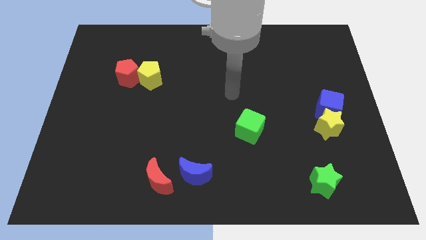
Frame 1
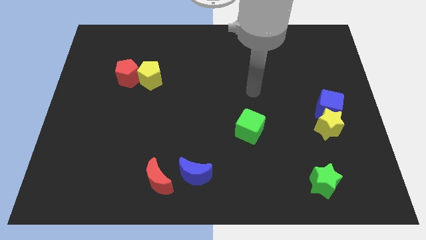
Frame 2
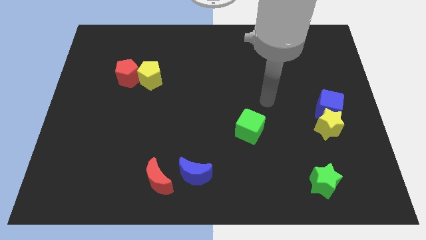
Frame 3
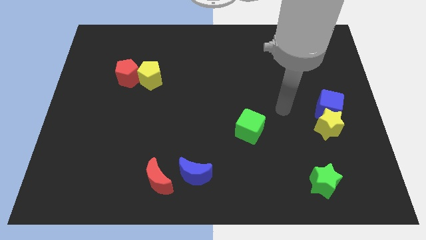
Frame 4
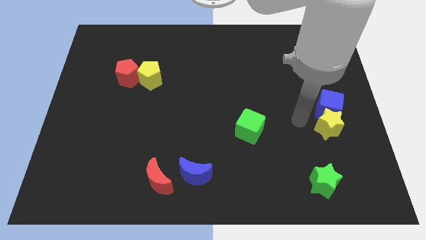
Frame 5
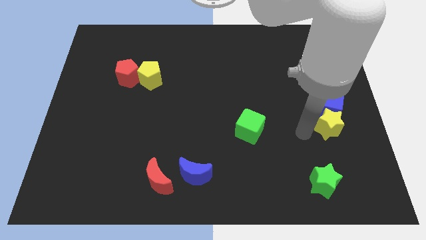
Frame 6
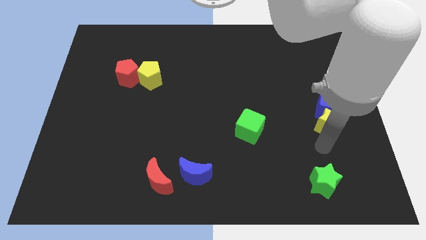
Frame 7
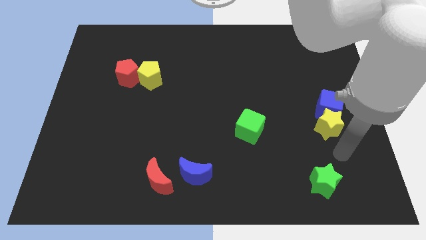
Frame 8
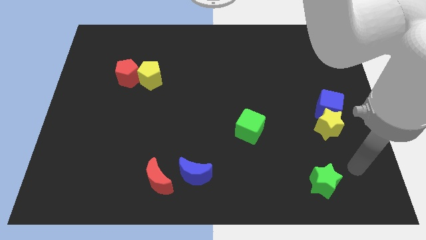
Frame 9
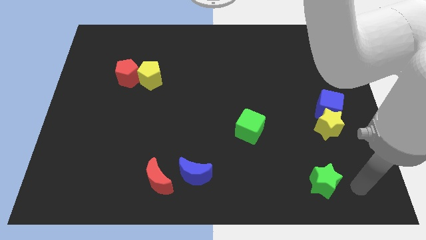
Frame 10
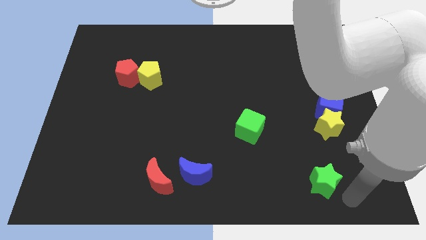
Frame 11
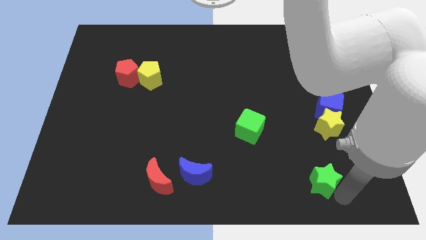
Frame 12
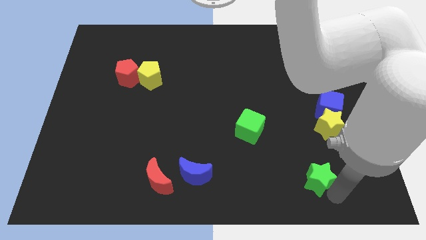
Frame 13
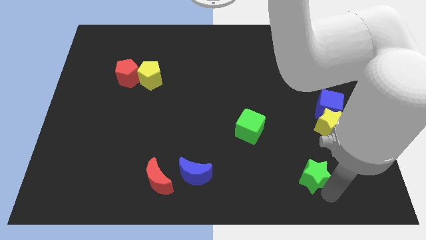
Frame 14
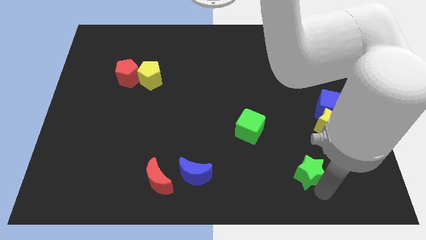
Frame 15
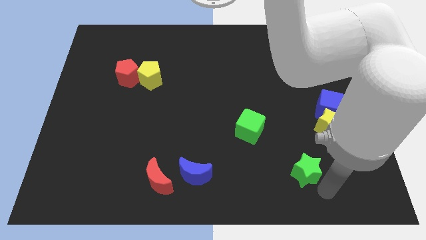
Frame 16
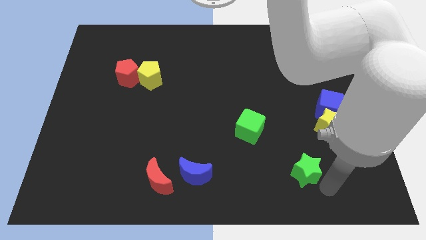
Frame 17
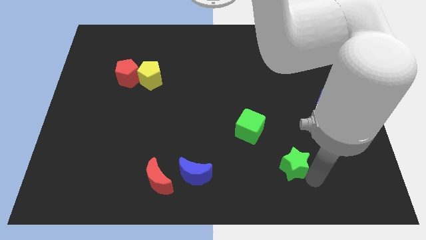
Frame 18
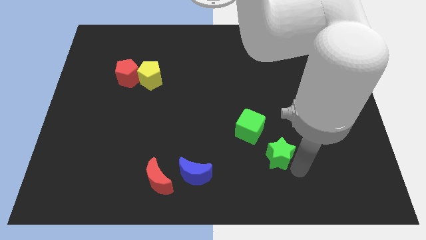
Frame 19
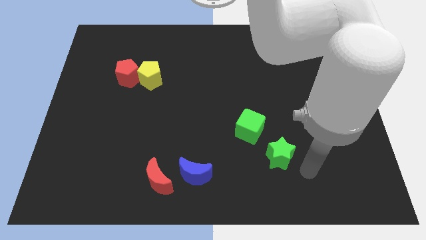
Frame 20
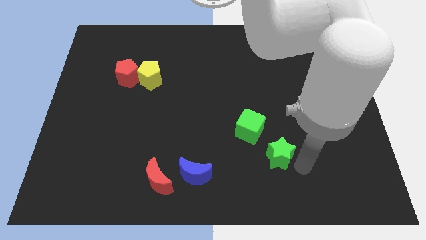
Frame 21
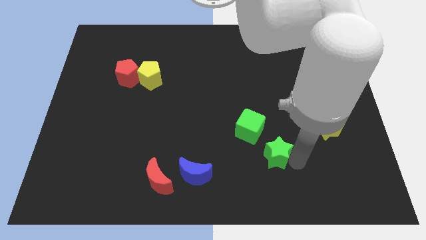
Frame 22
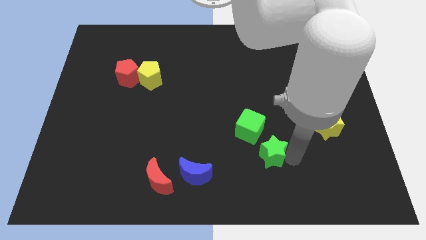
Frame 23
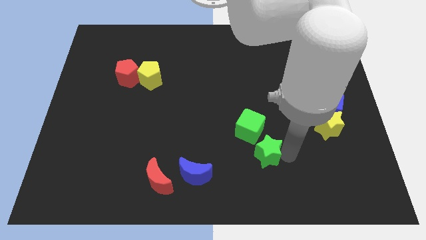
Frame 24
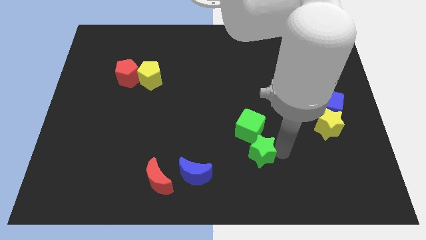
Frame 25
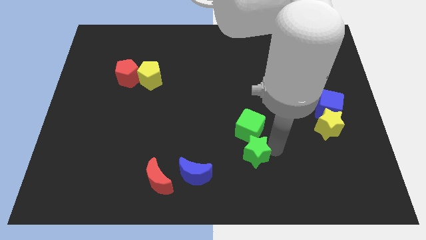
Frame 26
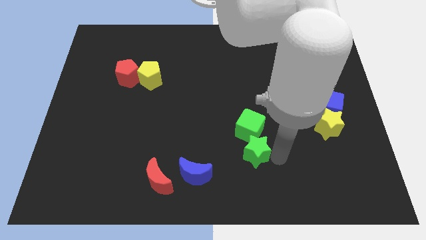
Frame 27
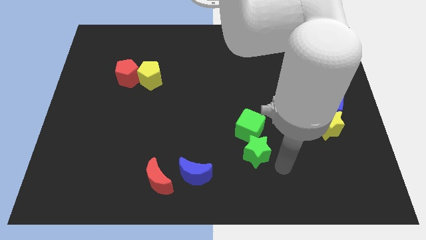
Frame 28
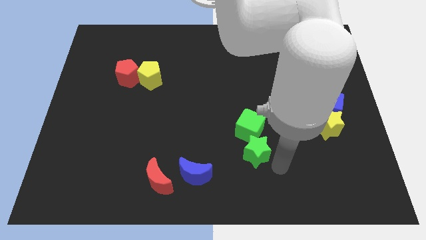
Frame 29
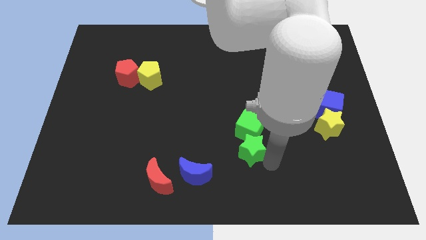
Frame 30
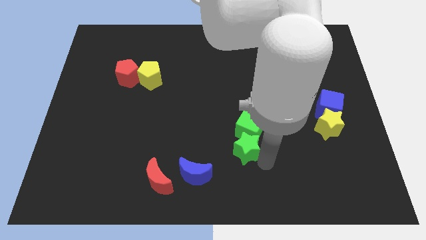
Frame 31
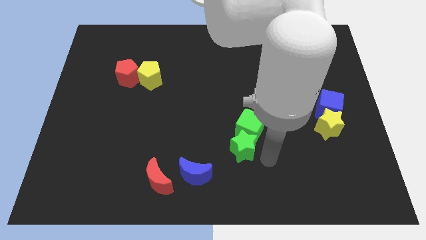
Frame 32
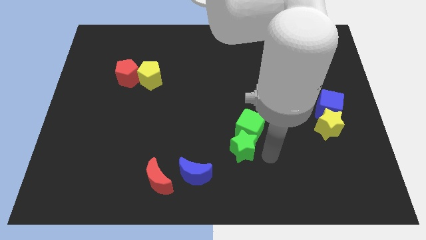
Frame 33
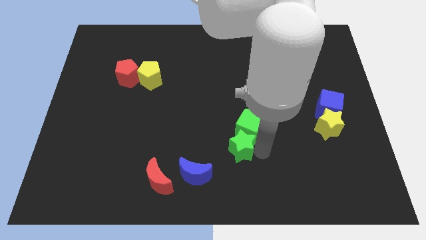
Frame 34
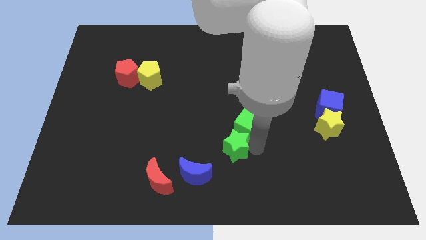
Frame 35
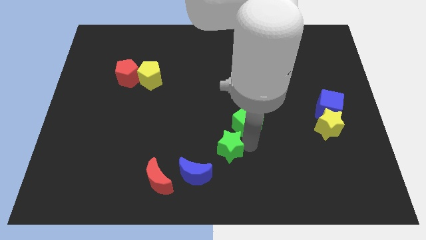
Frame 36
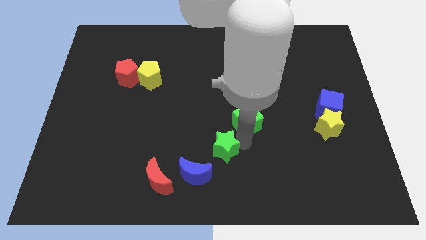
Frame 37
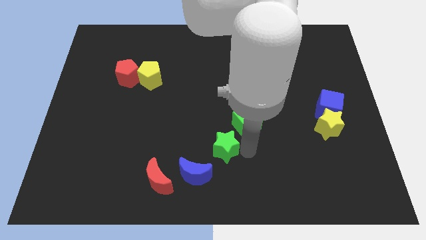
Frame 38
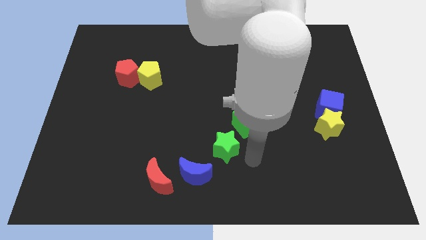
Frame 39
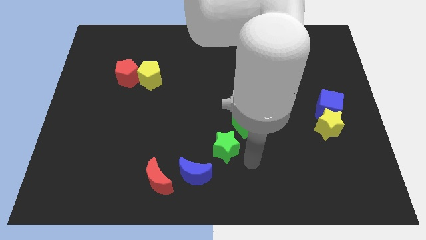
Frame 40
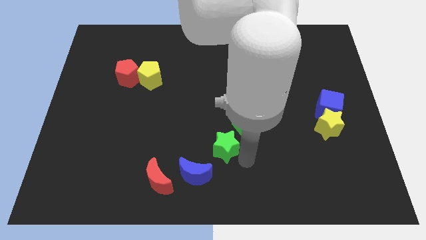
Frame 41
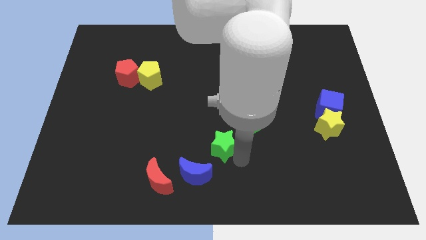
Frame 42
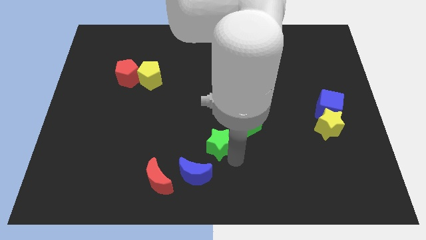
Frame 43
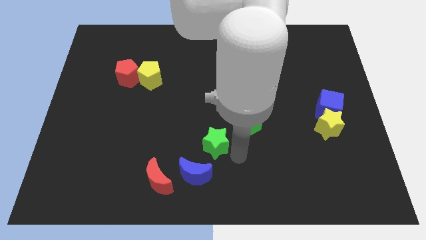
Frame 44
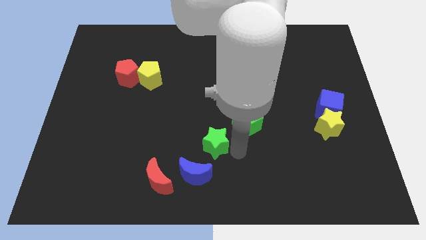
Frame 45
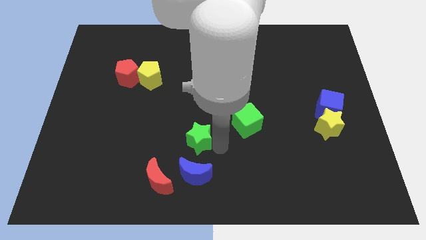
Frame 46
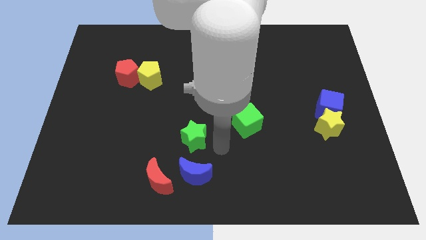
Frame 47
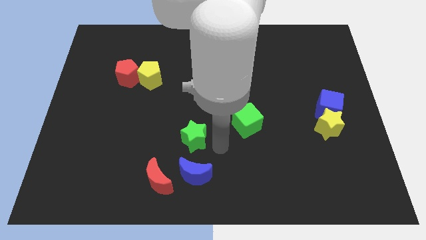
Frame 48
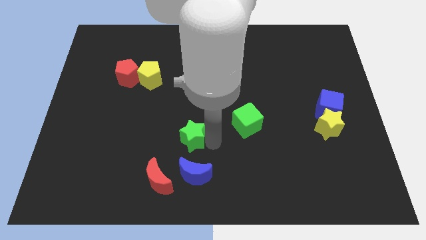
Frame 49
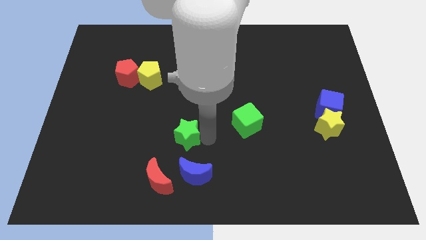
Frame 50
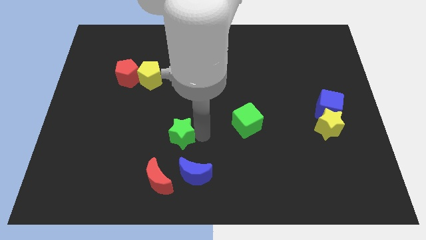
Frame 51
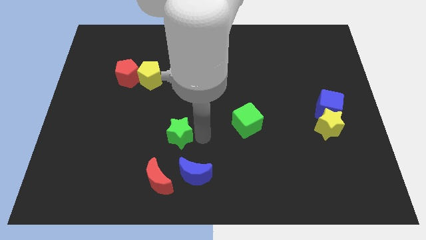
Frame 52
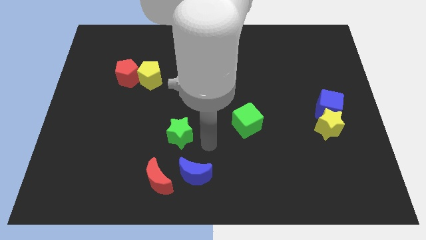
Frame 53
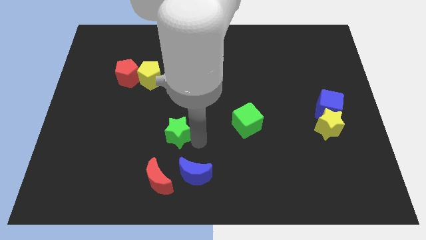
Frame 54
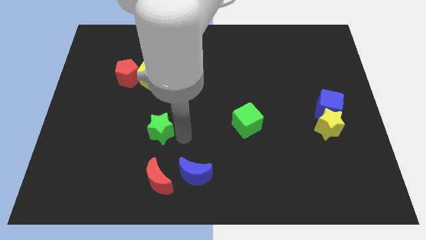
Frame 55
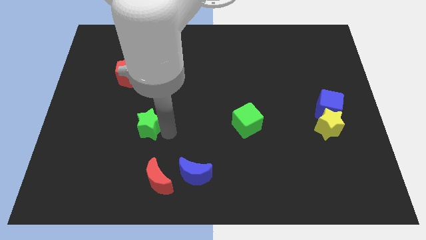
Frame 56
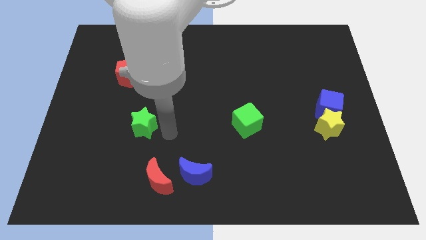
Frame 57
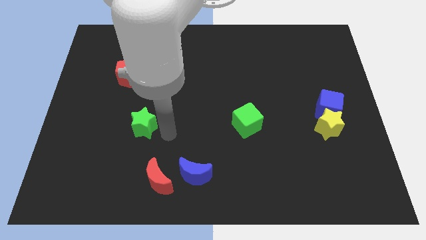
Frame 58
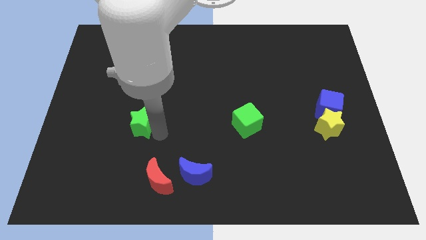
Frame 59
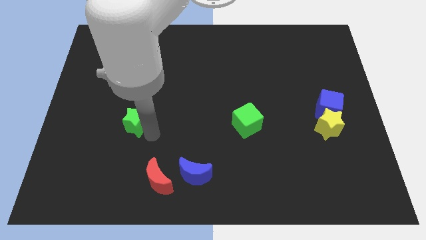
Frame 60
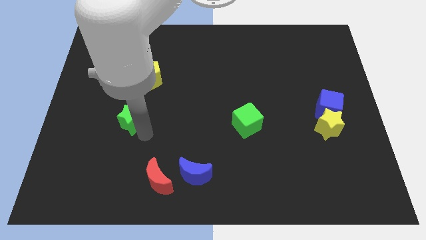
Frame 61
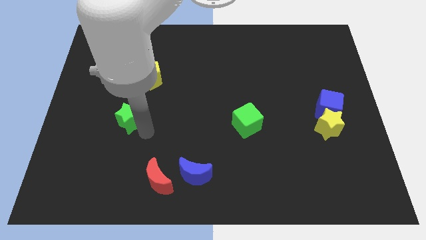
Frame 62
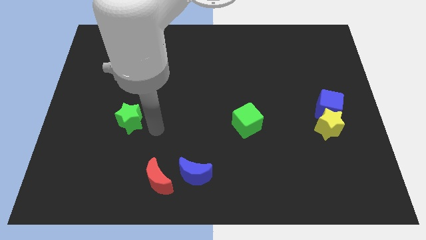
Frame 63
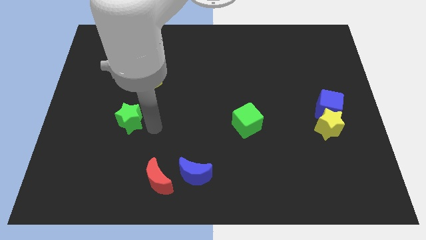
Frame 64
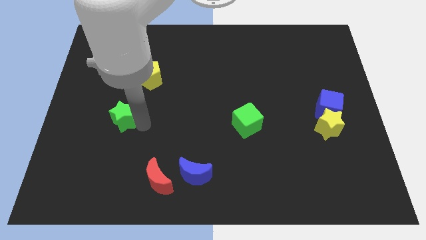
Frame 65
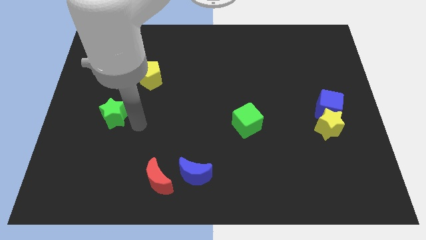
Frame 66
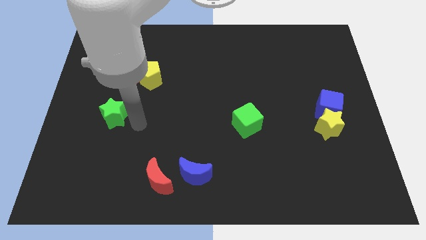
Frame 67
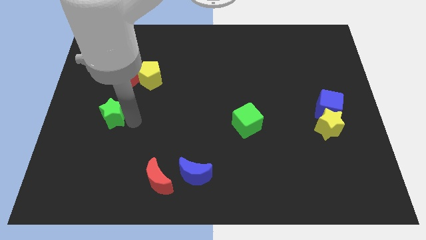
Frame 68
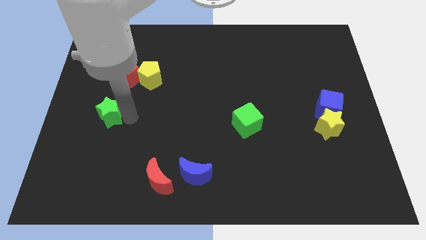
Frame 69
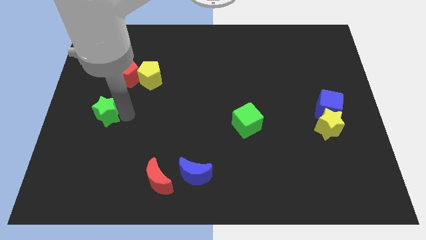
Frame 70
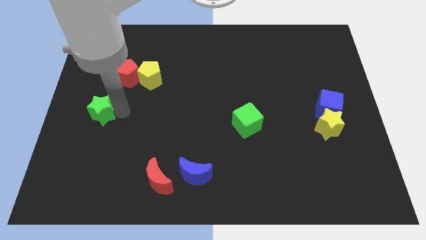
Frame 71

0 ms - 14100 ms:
slide the green star to the left side of the board

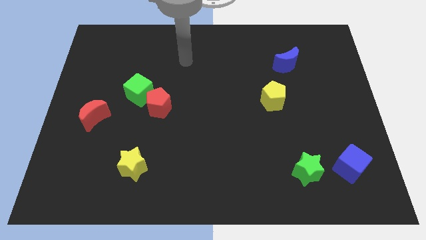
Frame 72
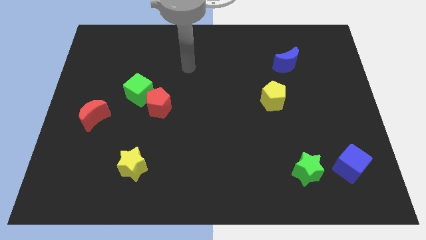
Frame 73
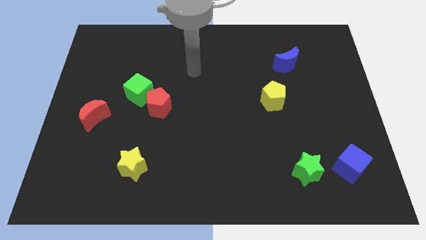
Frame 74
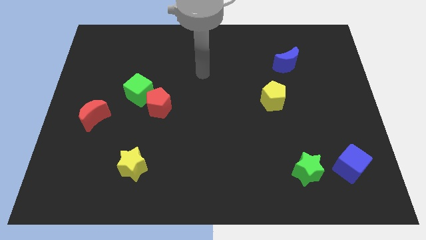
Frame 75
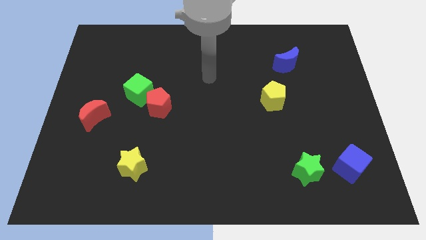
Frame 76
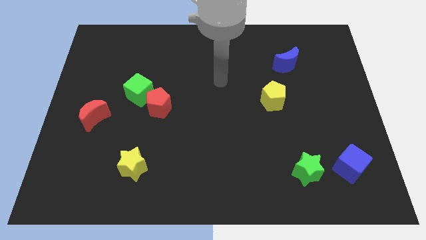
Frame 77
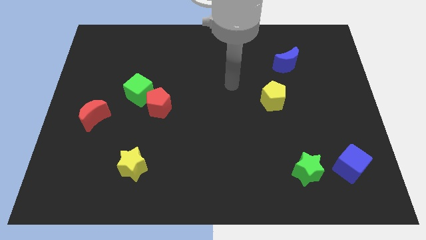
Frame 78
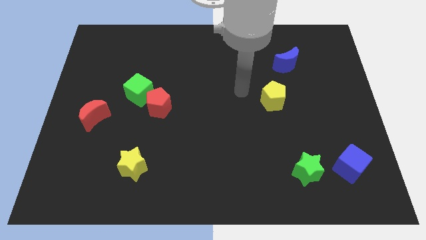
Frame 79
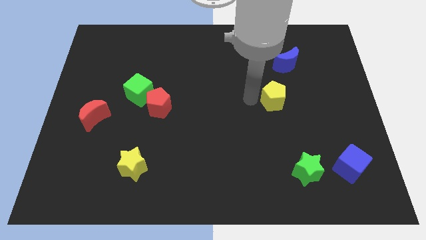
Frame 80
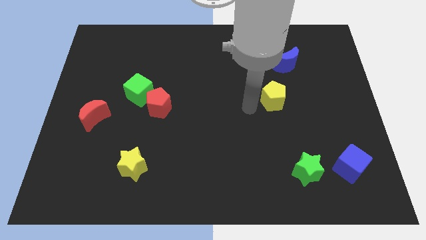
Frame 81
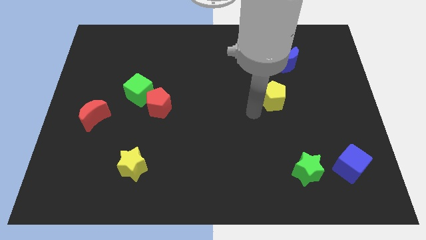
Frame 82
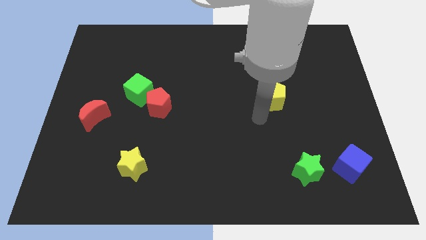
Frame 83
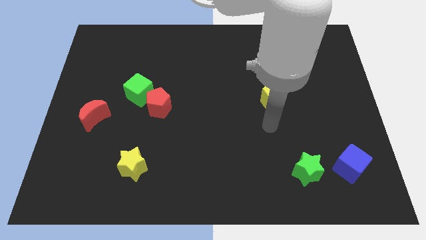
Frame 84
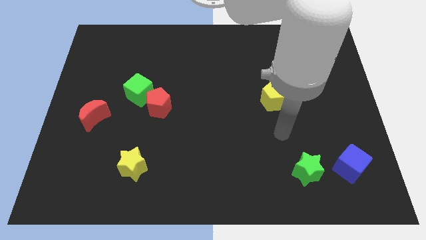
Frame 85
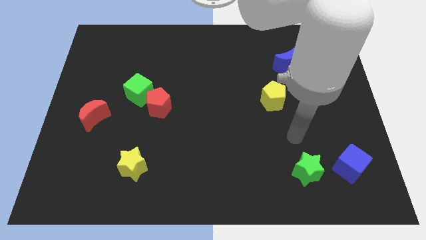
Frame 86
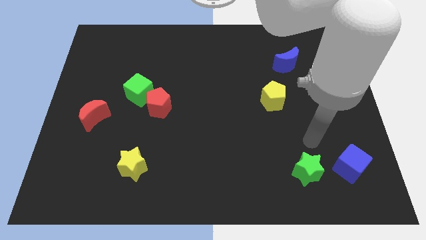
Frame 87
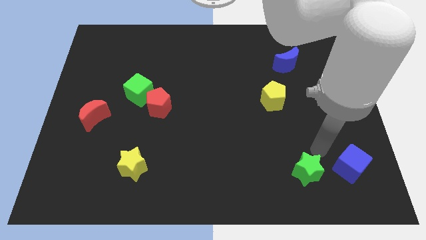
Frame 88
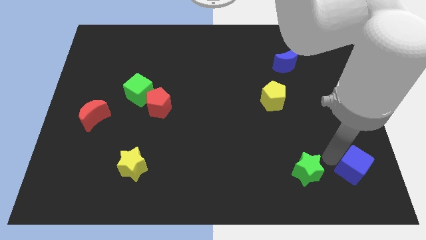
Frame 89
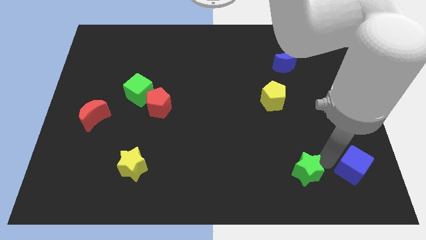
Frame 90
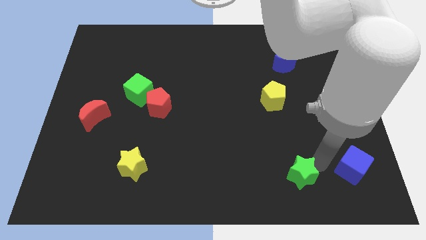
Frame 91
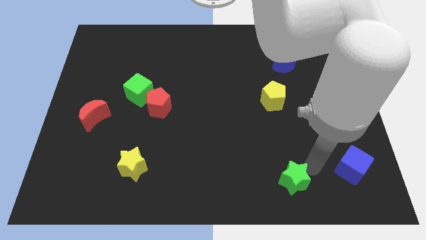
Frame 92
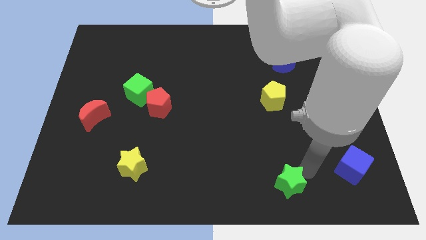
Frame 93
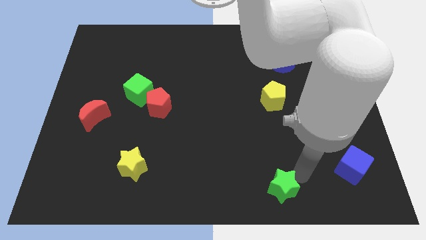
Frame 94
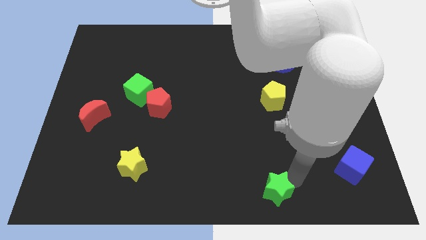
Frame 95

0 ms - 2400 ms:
put the green star to the bottom
